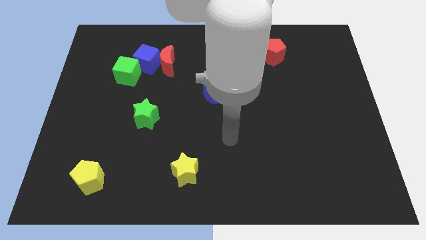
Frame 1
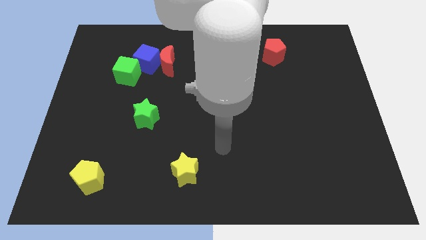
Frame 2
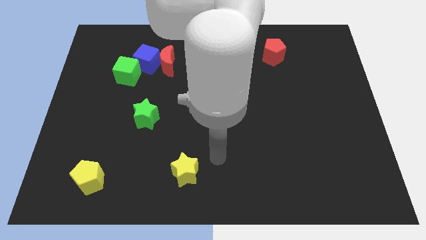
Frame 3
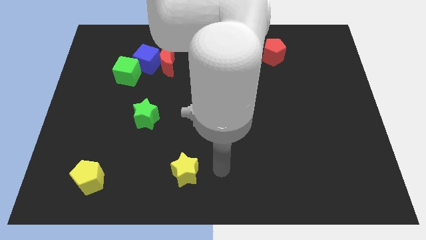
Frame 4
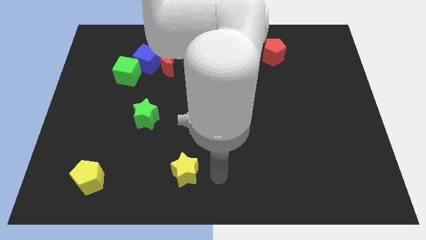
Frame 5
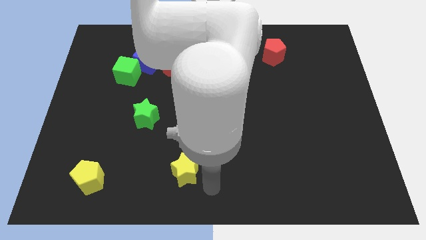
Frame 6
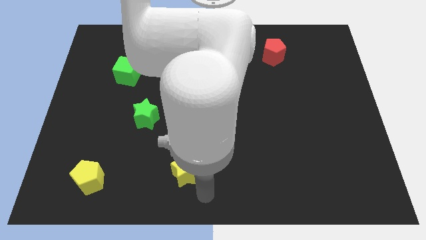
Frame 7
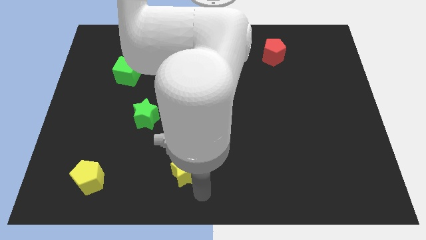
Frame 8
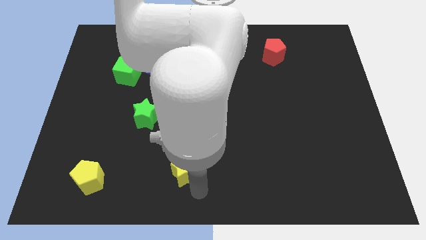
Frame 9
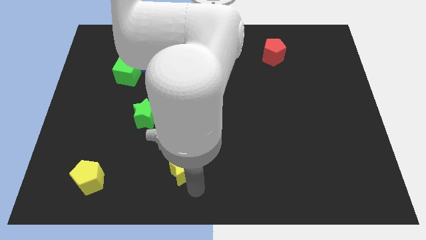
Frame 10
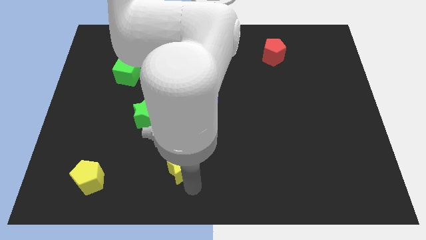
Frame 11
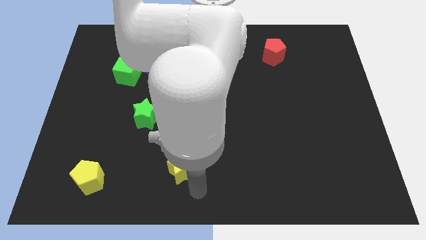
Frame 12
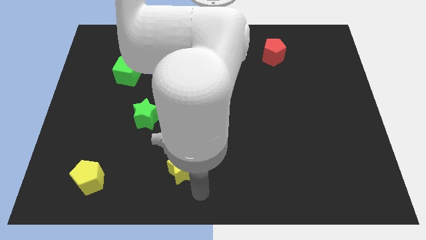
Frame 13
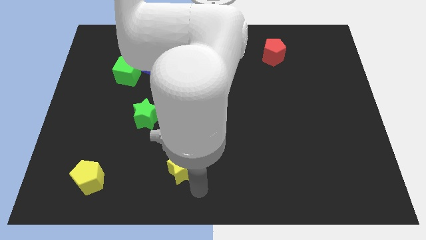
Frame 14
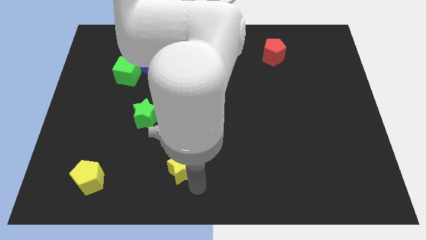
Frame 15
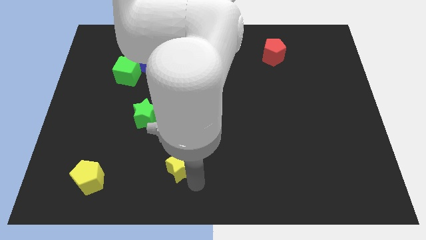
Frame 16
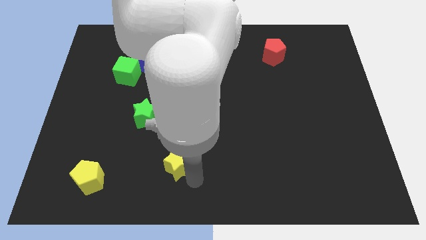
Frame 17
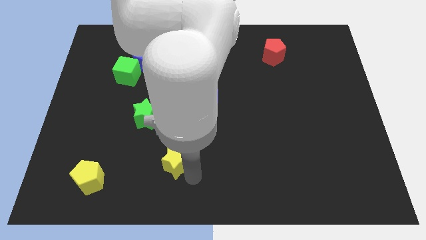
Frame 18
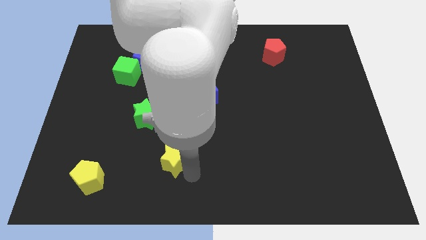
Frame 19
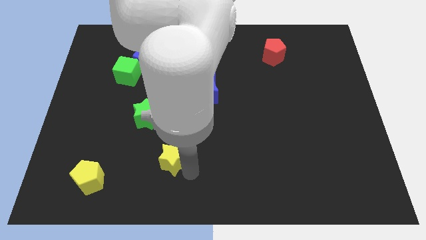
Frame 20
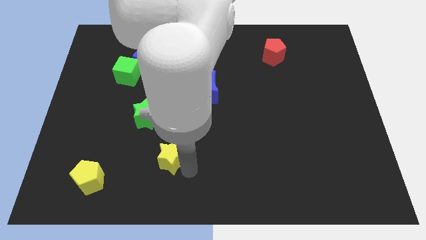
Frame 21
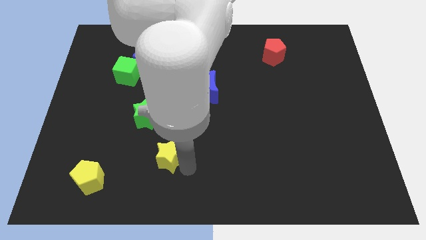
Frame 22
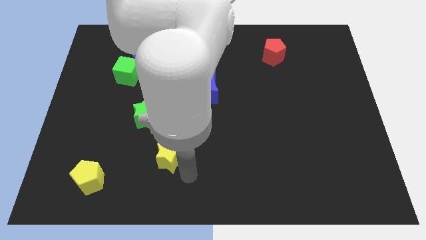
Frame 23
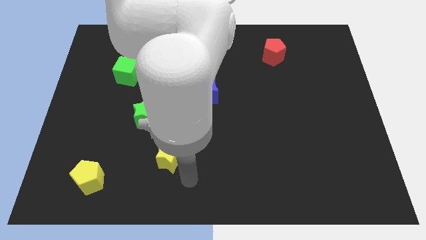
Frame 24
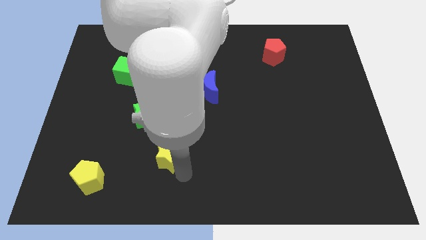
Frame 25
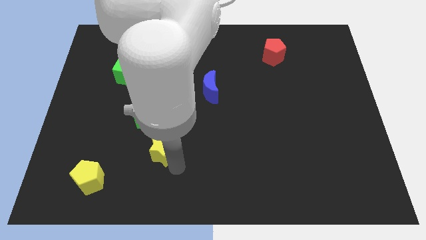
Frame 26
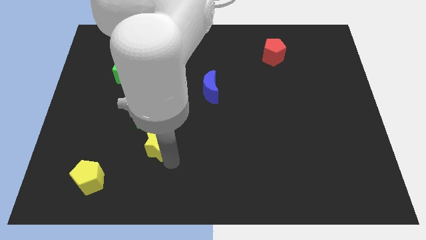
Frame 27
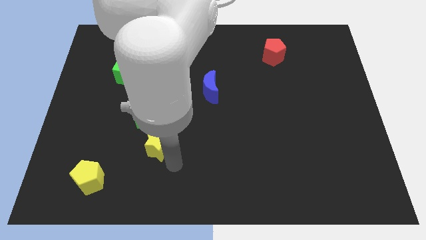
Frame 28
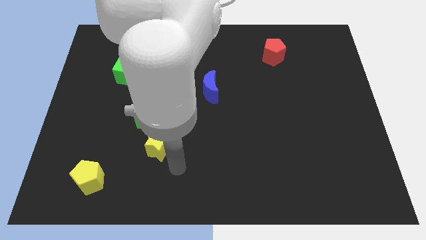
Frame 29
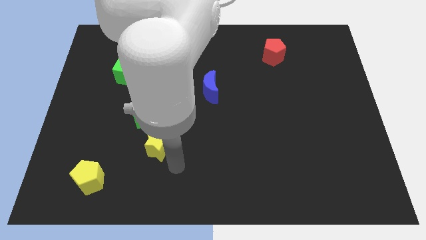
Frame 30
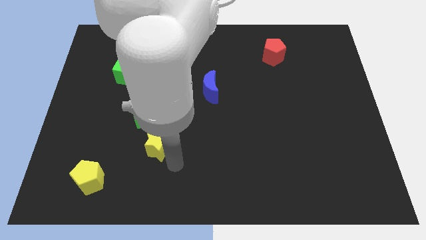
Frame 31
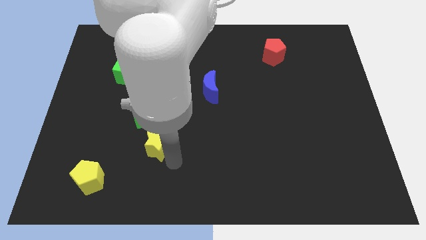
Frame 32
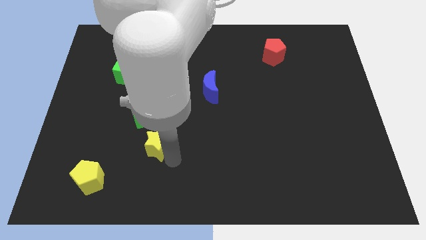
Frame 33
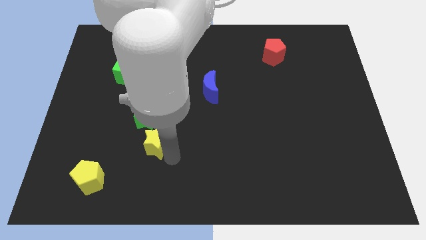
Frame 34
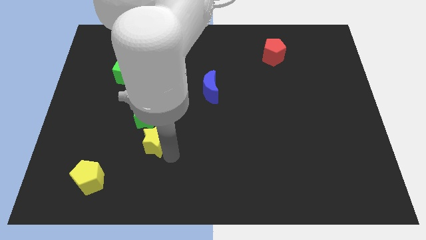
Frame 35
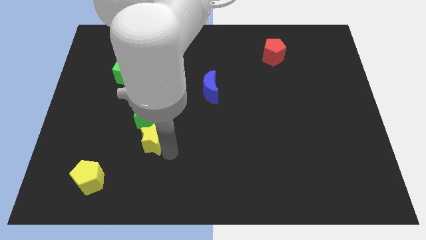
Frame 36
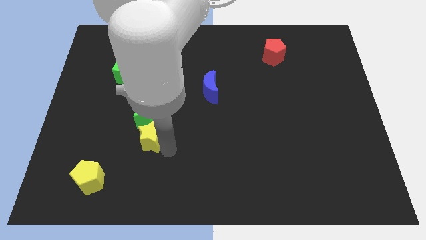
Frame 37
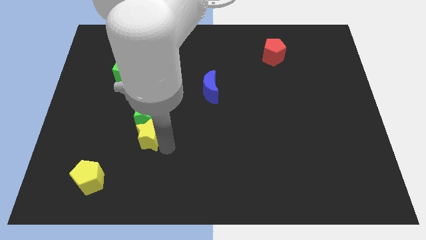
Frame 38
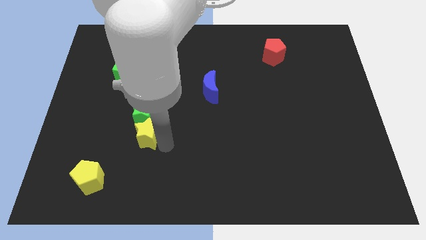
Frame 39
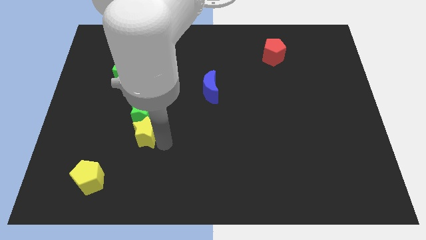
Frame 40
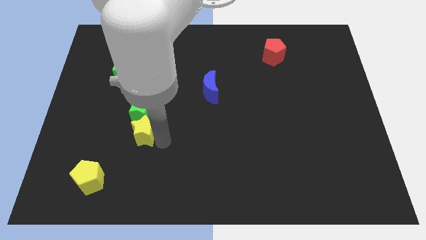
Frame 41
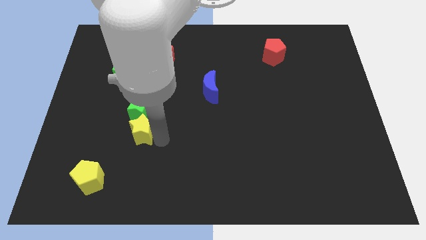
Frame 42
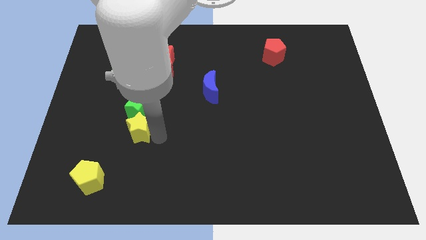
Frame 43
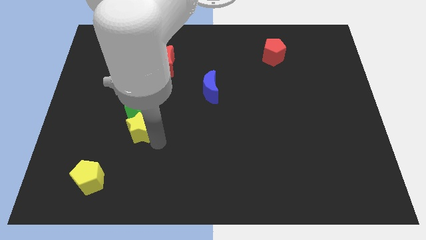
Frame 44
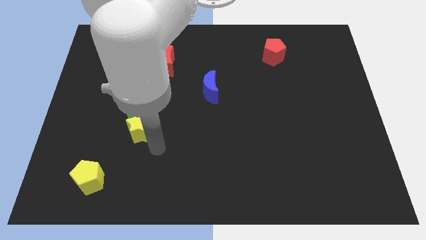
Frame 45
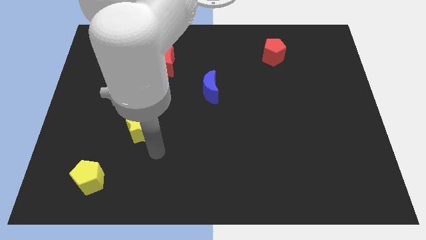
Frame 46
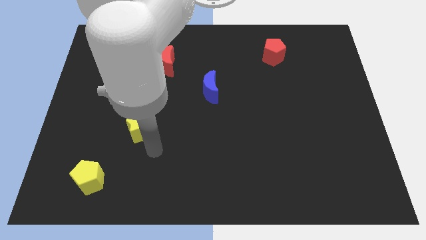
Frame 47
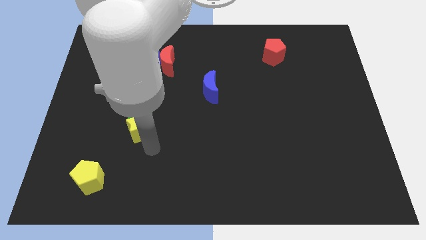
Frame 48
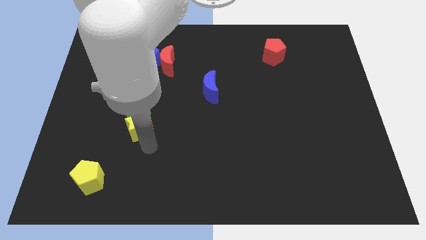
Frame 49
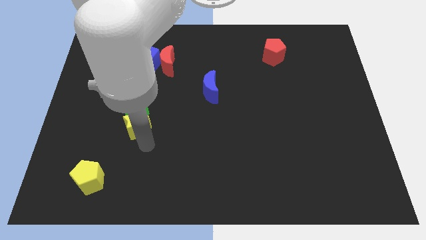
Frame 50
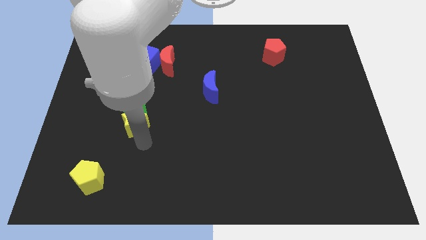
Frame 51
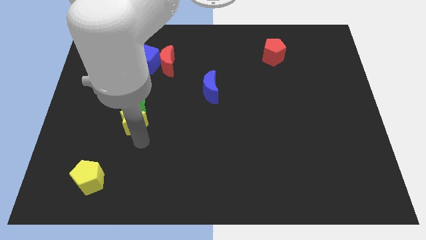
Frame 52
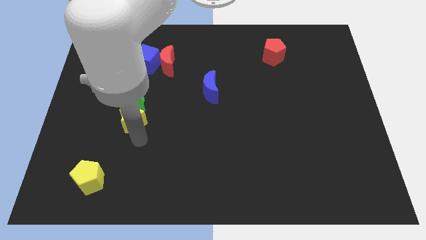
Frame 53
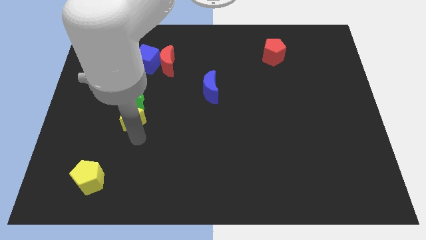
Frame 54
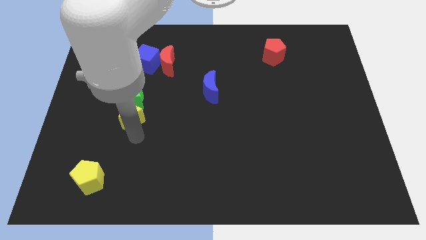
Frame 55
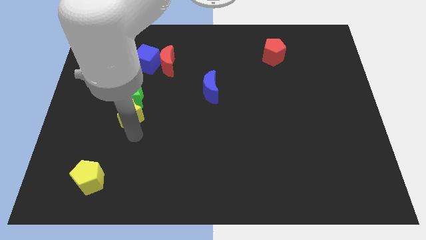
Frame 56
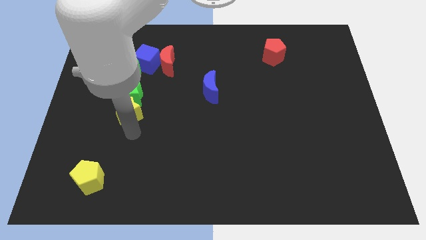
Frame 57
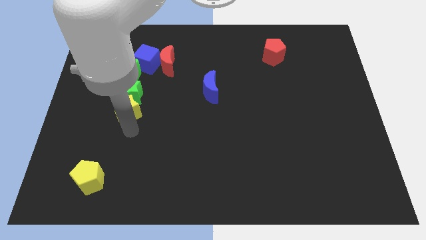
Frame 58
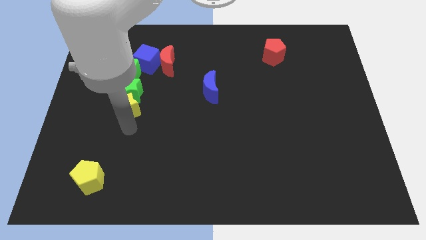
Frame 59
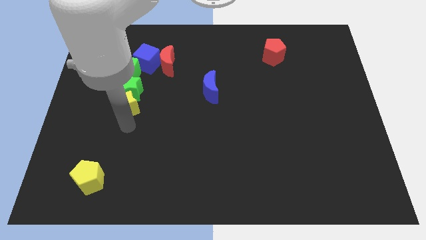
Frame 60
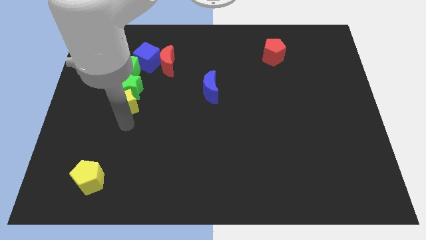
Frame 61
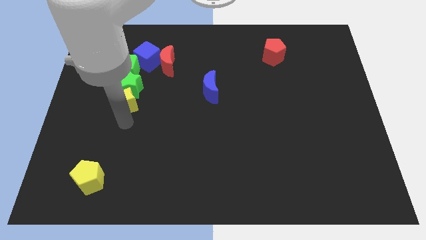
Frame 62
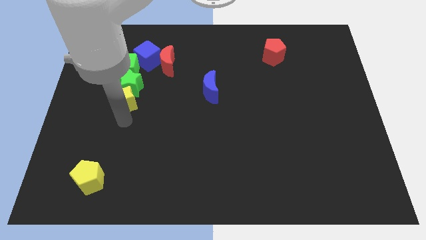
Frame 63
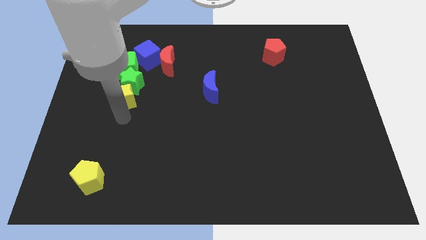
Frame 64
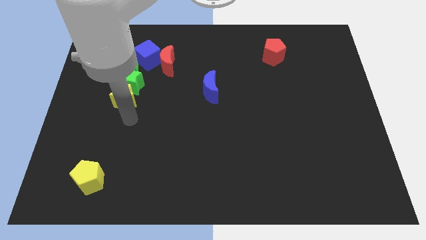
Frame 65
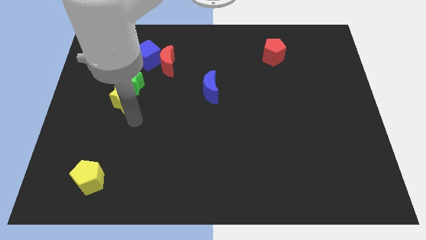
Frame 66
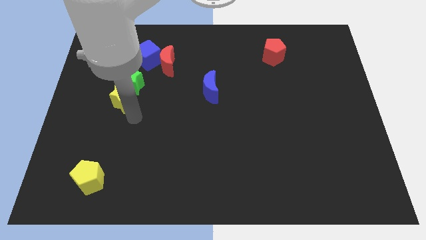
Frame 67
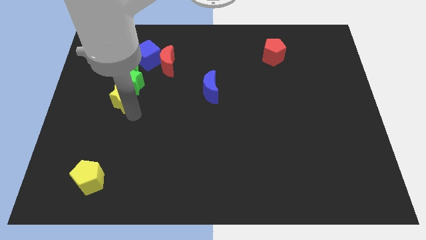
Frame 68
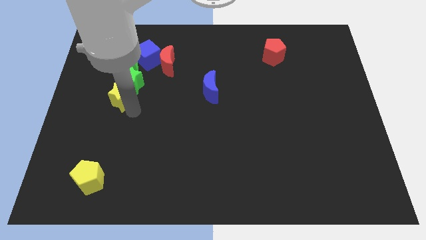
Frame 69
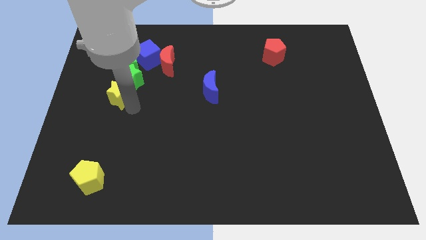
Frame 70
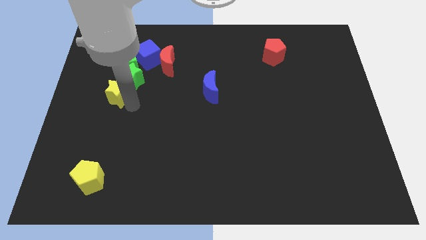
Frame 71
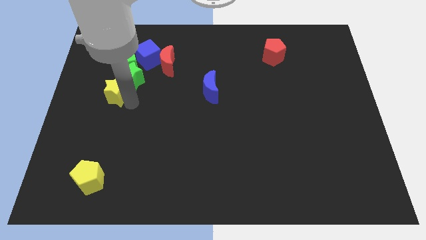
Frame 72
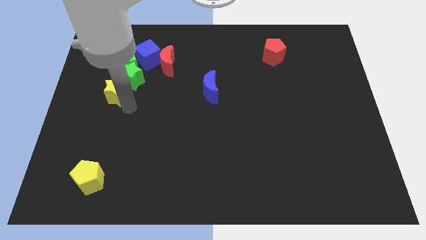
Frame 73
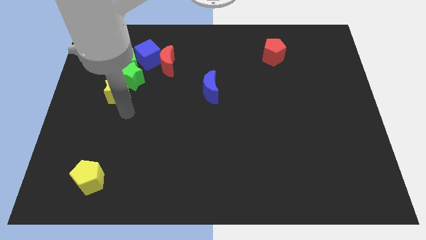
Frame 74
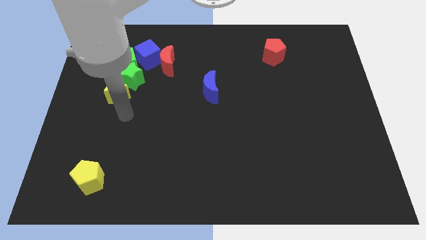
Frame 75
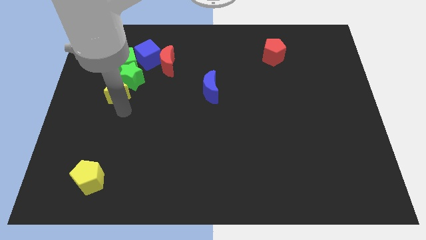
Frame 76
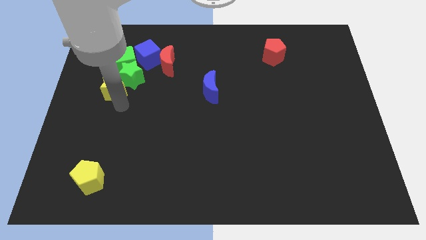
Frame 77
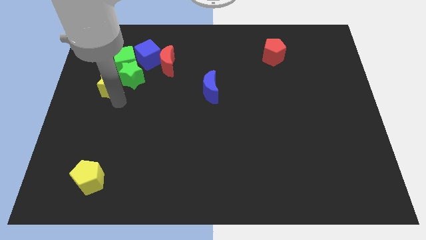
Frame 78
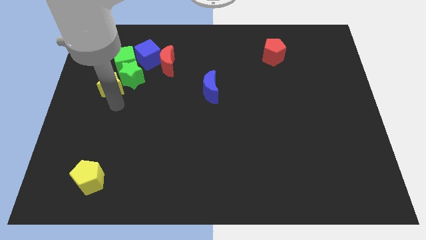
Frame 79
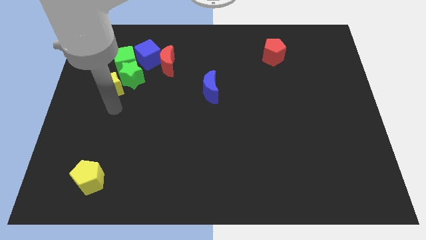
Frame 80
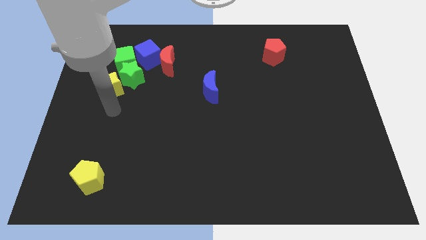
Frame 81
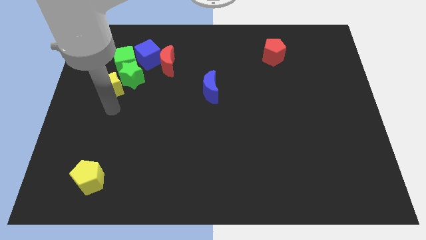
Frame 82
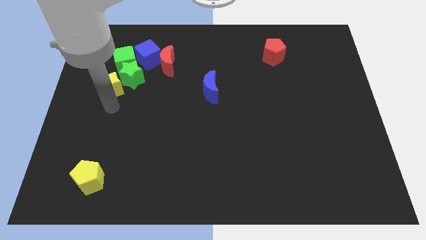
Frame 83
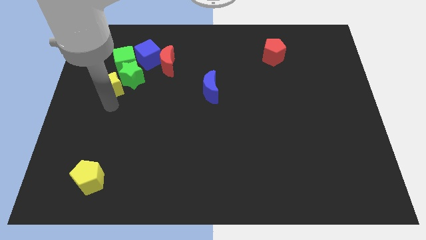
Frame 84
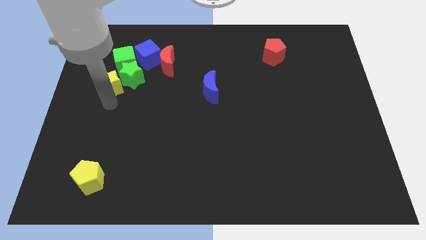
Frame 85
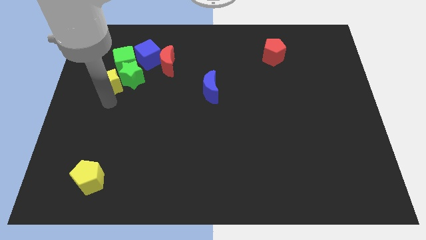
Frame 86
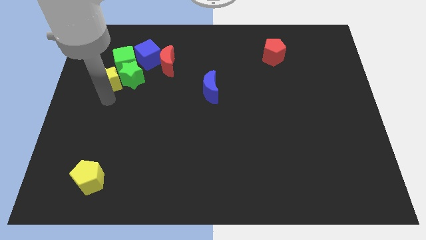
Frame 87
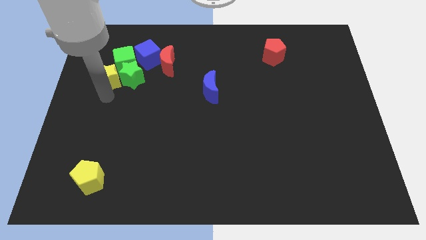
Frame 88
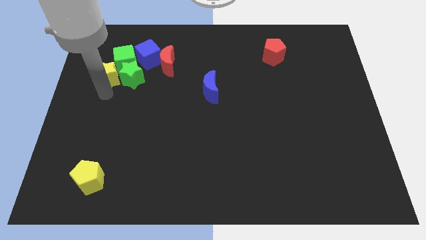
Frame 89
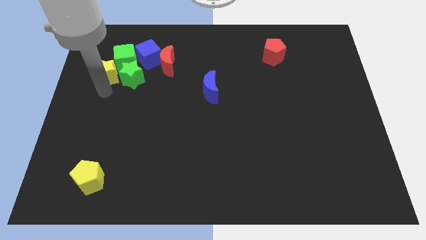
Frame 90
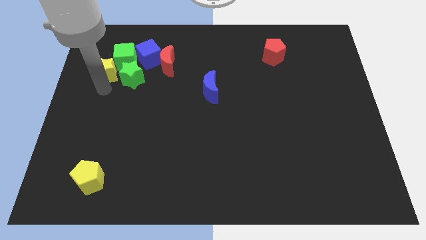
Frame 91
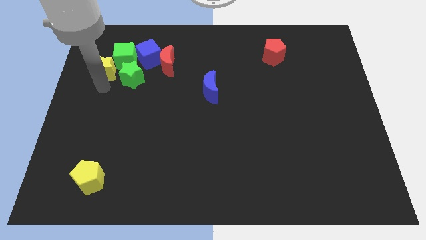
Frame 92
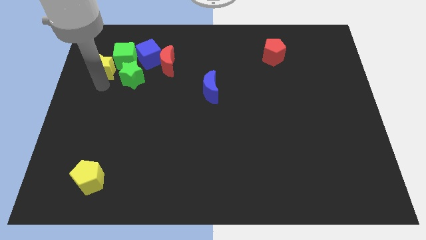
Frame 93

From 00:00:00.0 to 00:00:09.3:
move the yellow star to the left side of the blue cube
